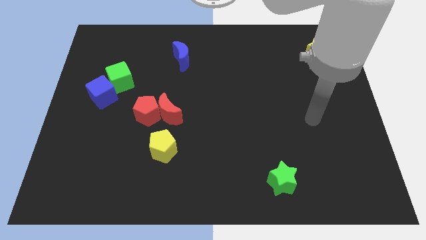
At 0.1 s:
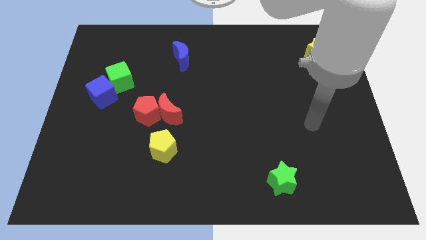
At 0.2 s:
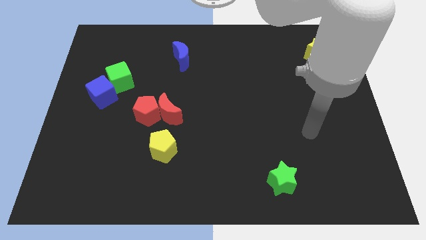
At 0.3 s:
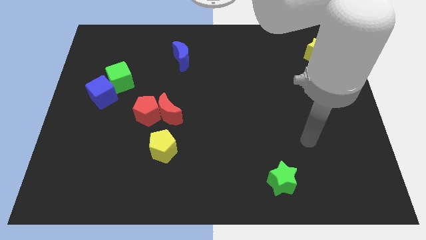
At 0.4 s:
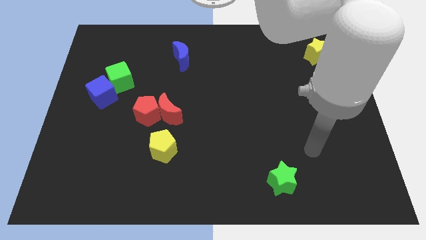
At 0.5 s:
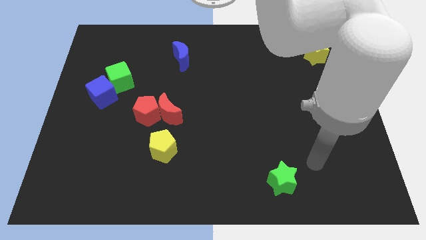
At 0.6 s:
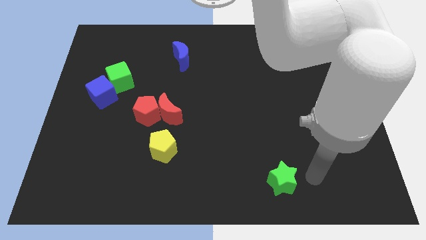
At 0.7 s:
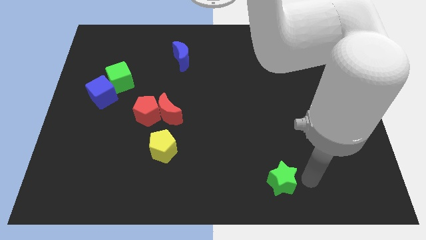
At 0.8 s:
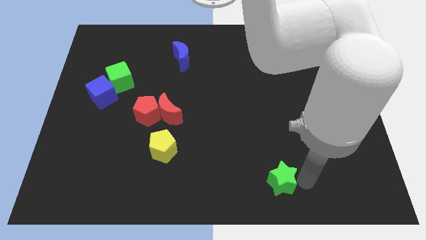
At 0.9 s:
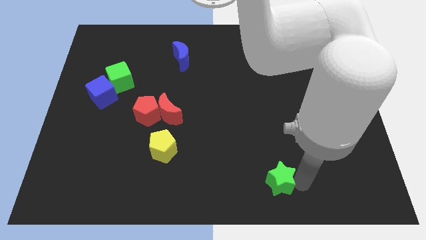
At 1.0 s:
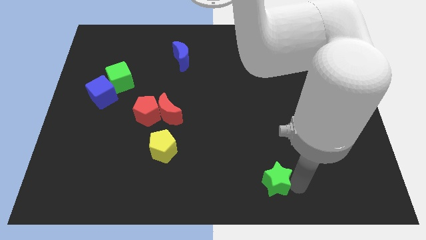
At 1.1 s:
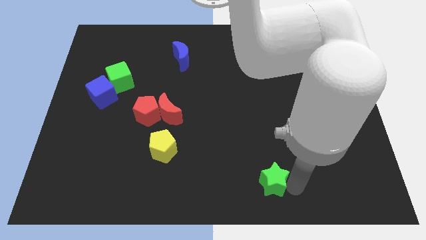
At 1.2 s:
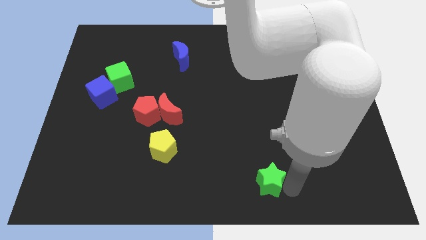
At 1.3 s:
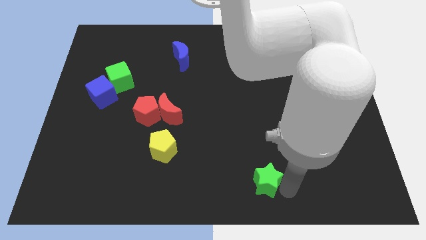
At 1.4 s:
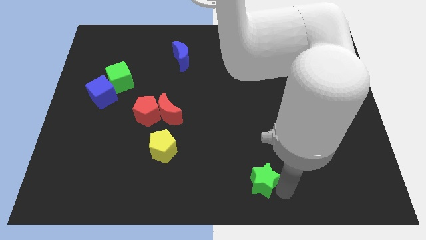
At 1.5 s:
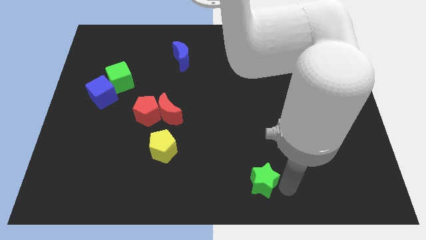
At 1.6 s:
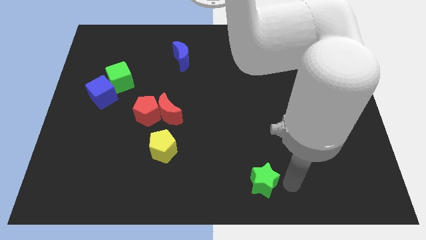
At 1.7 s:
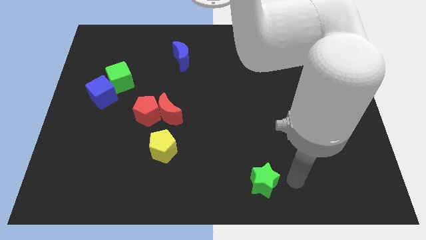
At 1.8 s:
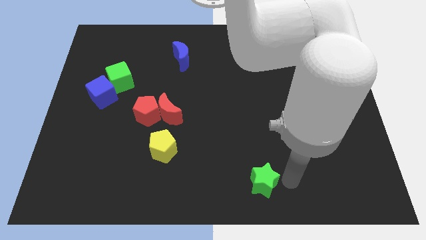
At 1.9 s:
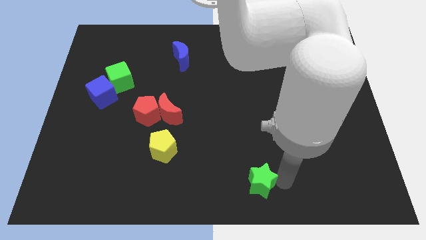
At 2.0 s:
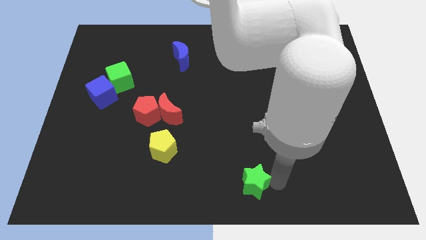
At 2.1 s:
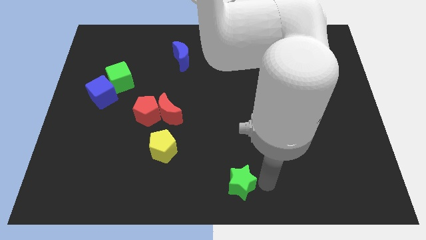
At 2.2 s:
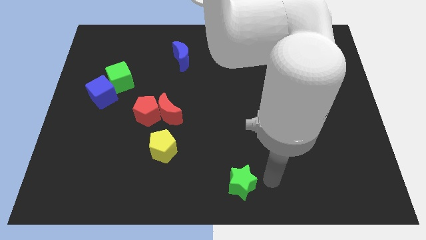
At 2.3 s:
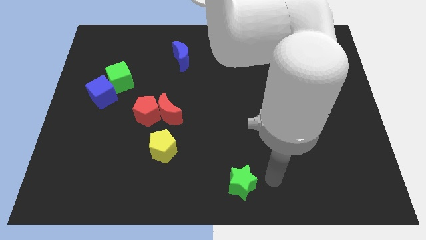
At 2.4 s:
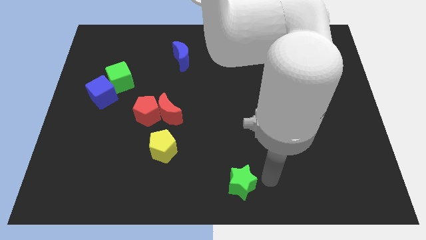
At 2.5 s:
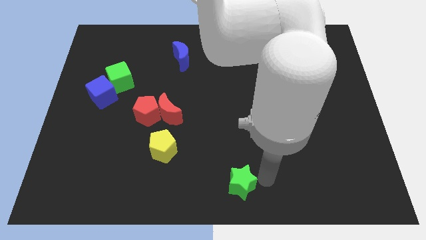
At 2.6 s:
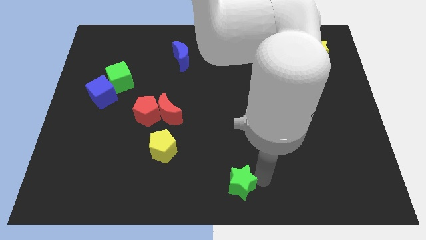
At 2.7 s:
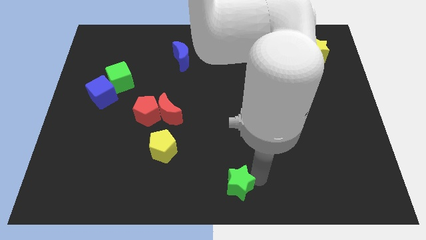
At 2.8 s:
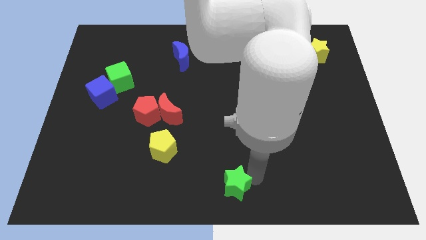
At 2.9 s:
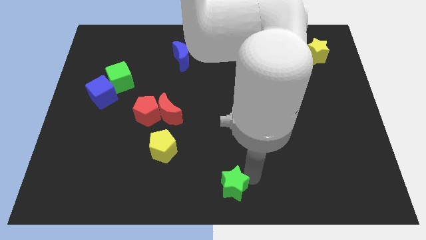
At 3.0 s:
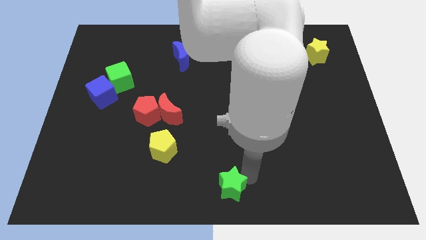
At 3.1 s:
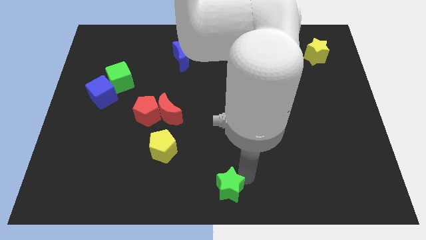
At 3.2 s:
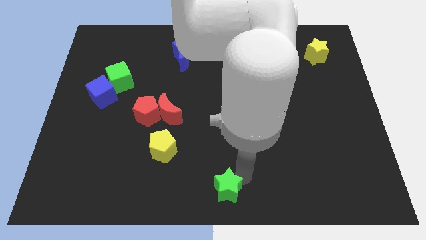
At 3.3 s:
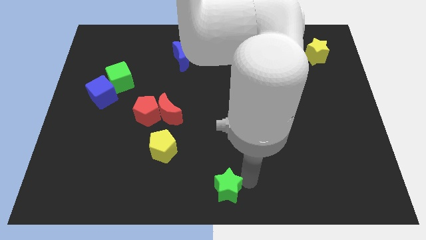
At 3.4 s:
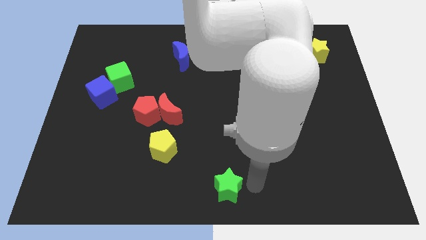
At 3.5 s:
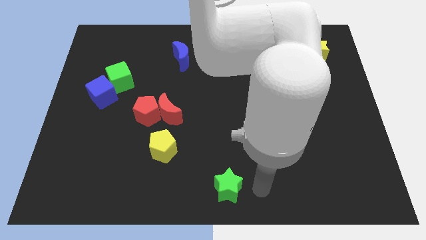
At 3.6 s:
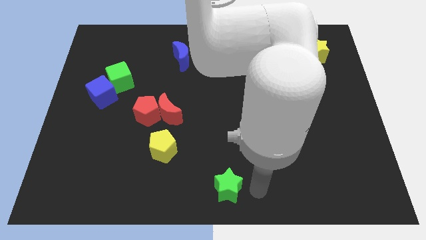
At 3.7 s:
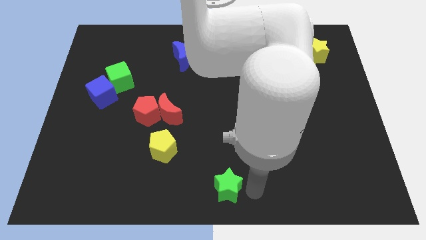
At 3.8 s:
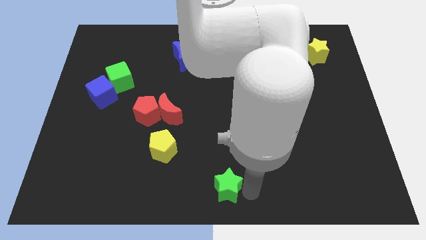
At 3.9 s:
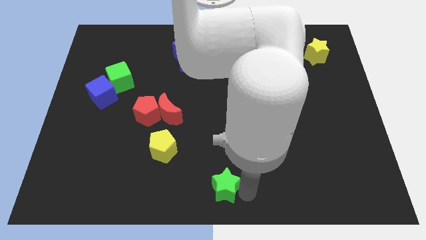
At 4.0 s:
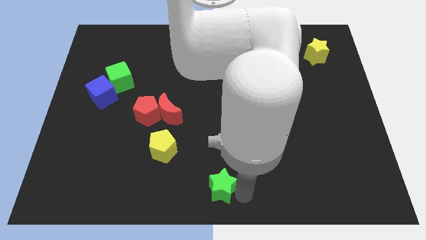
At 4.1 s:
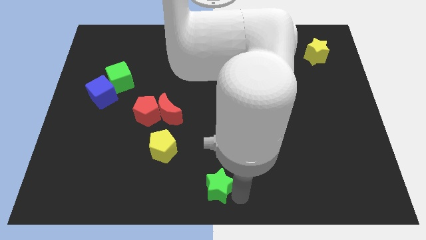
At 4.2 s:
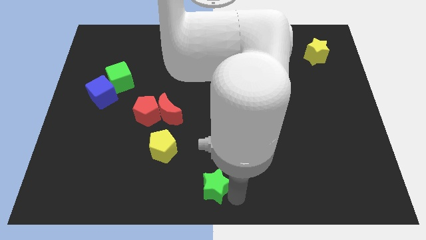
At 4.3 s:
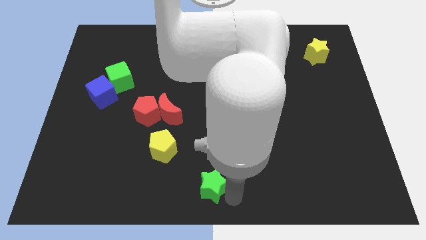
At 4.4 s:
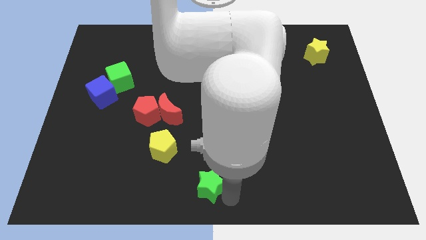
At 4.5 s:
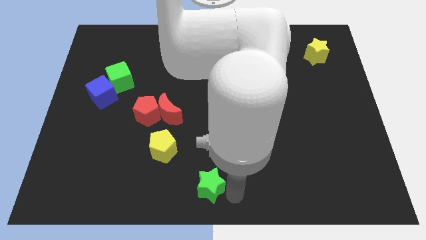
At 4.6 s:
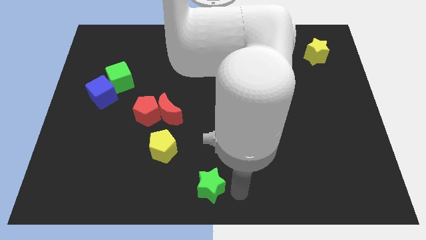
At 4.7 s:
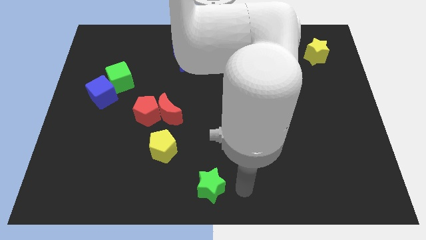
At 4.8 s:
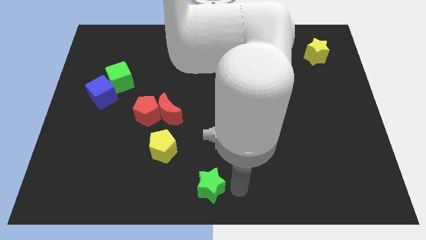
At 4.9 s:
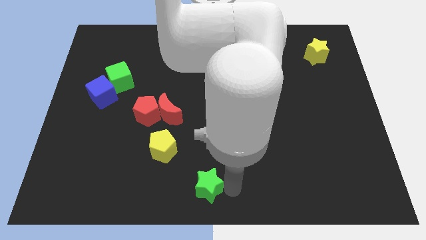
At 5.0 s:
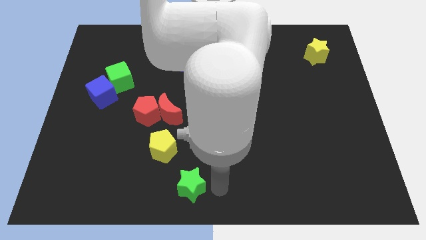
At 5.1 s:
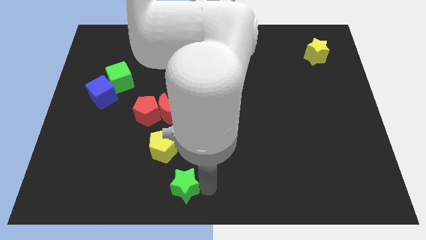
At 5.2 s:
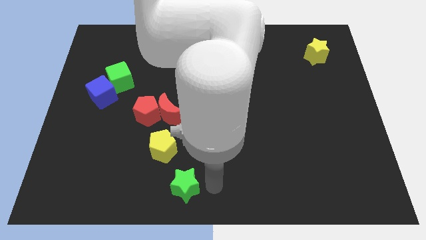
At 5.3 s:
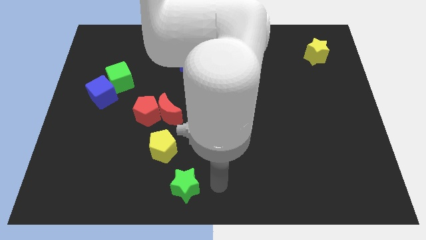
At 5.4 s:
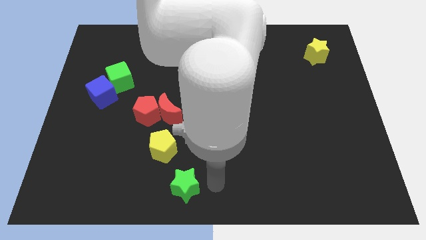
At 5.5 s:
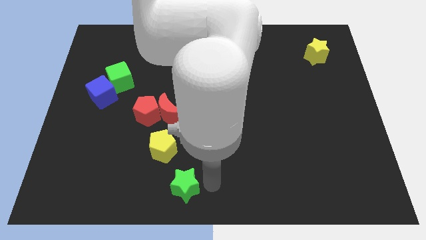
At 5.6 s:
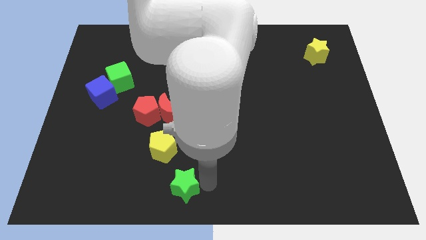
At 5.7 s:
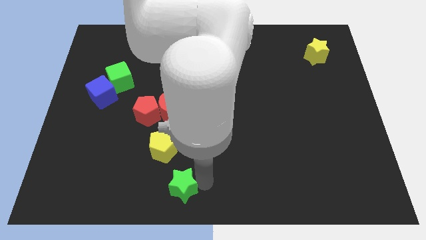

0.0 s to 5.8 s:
slide the green star to the left

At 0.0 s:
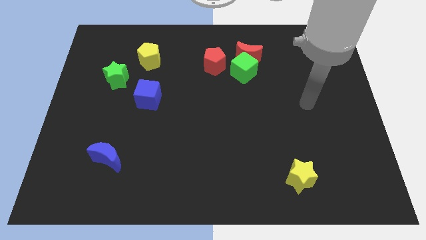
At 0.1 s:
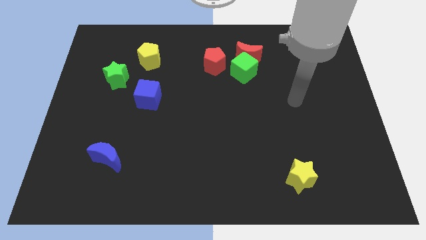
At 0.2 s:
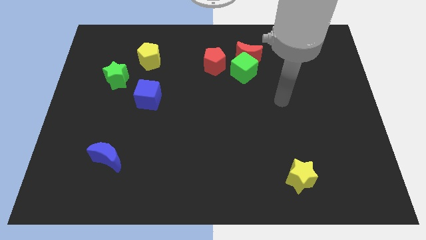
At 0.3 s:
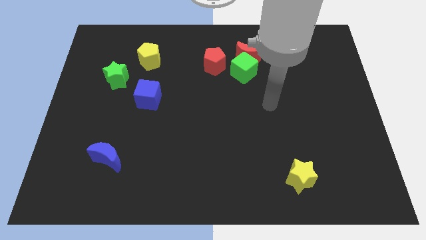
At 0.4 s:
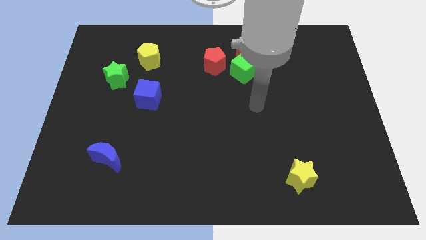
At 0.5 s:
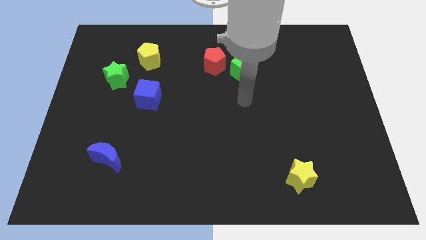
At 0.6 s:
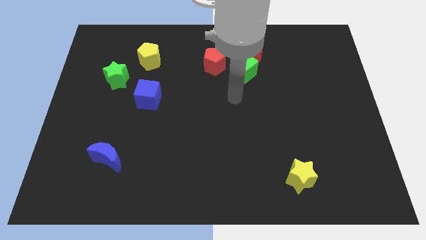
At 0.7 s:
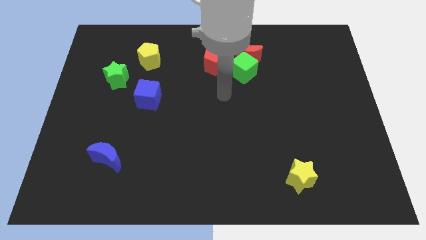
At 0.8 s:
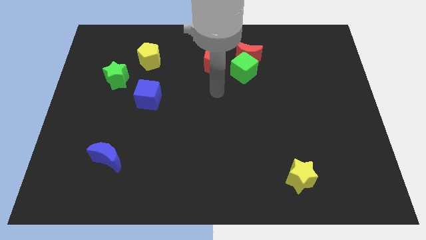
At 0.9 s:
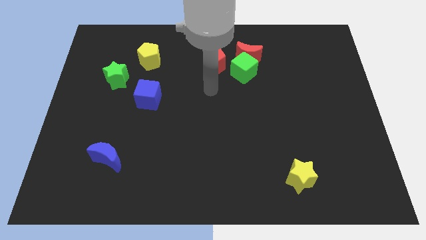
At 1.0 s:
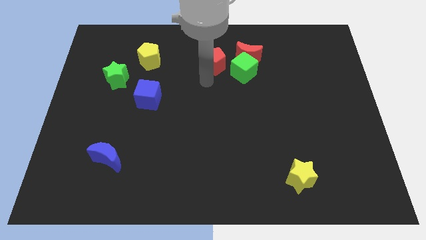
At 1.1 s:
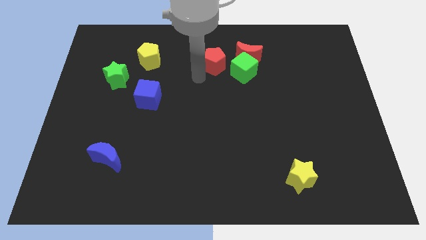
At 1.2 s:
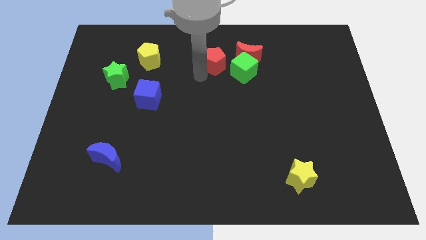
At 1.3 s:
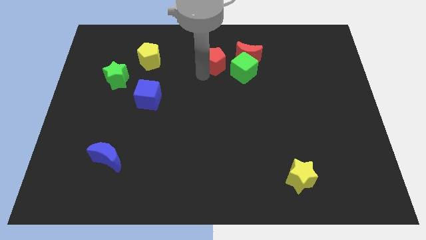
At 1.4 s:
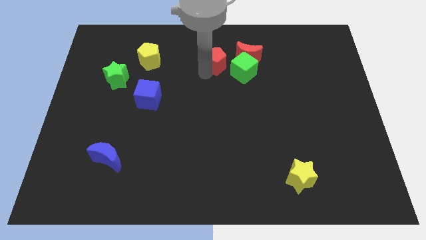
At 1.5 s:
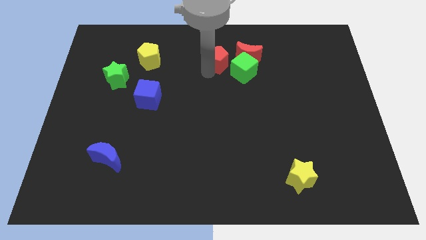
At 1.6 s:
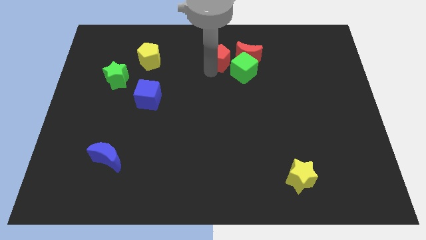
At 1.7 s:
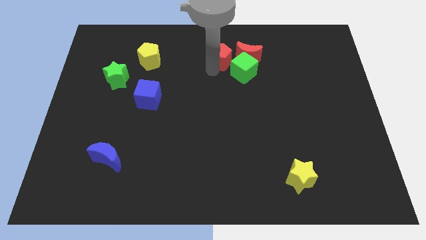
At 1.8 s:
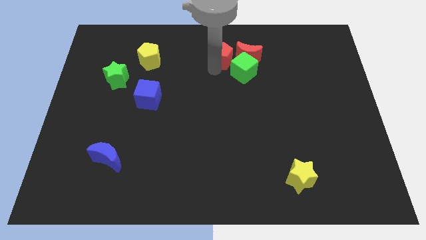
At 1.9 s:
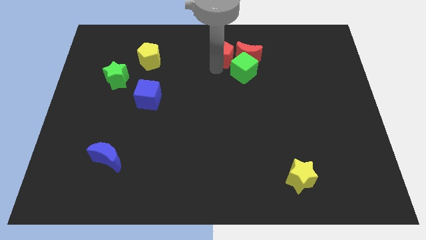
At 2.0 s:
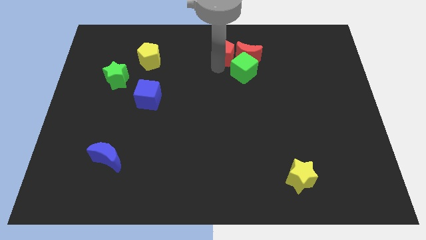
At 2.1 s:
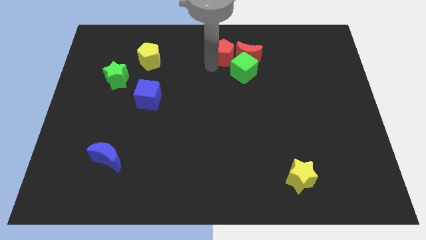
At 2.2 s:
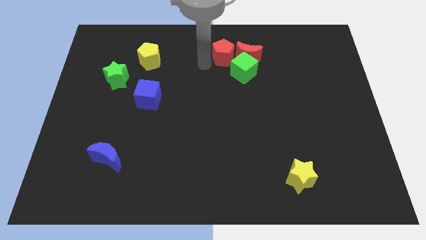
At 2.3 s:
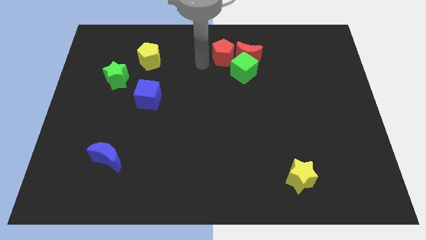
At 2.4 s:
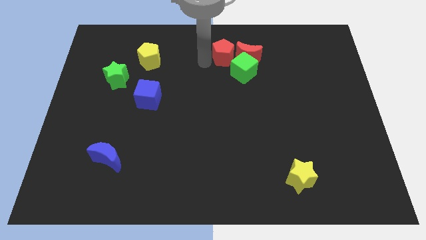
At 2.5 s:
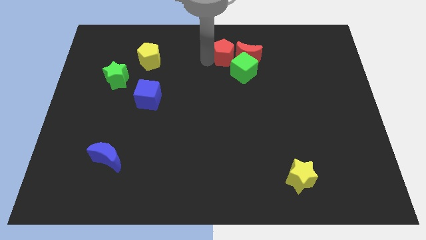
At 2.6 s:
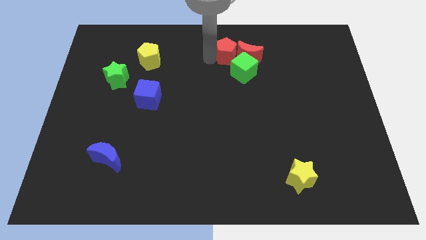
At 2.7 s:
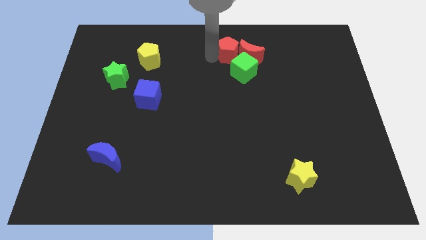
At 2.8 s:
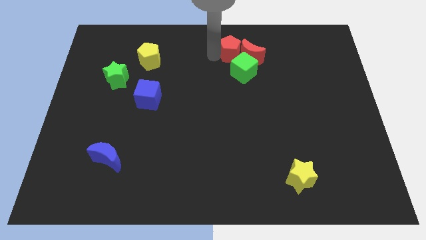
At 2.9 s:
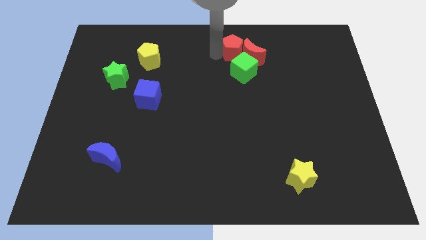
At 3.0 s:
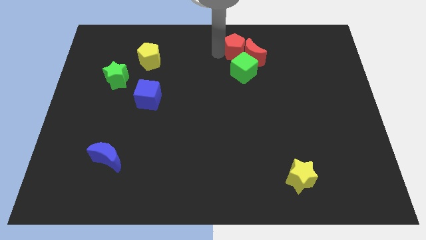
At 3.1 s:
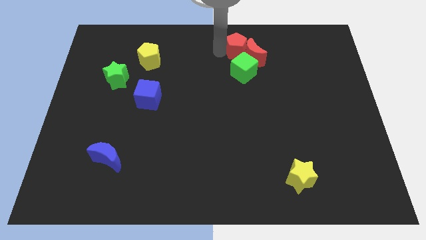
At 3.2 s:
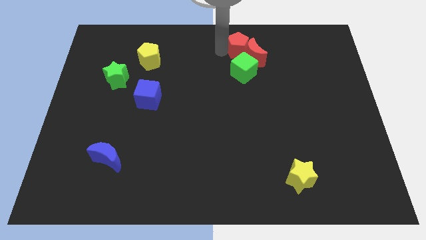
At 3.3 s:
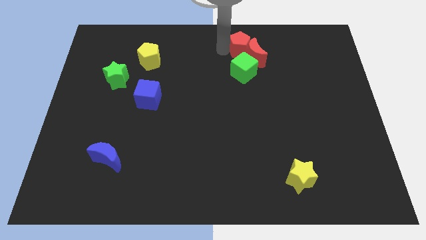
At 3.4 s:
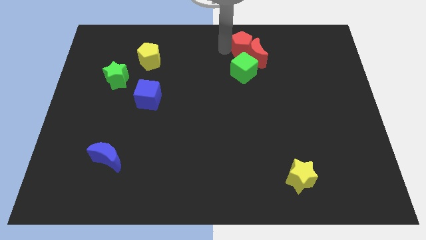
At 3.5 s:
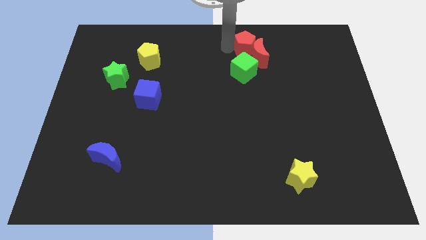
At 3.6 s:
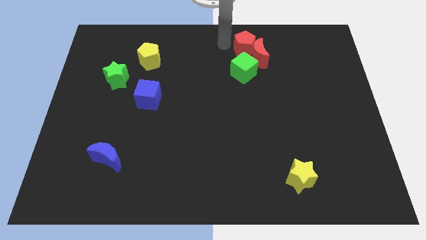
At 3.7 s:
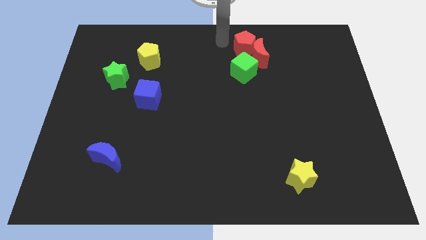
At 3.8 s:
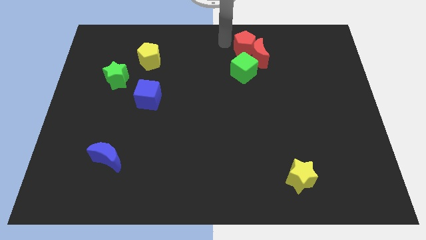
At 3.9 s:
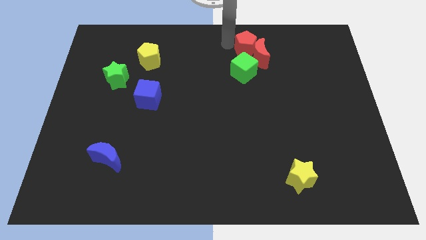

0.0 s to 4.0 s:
push the red pentagon to the right somewhat
